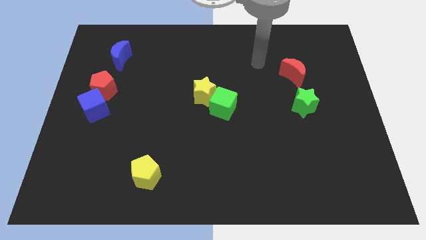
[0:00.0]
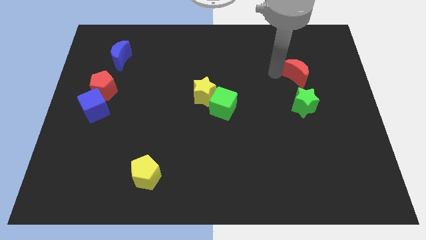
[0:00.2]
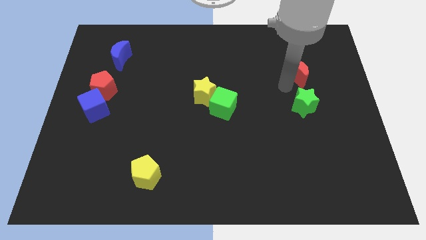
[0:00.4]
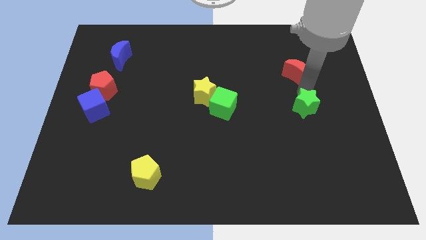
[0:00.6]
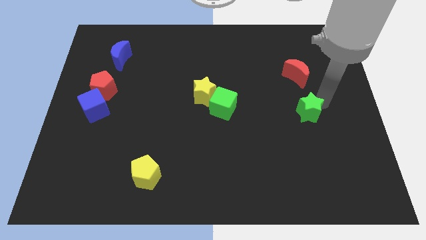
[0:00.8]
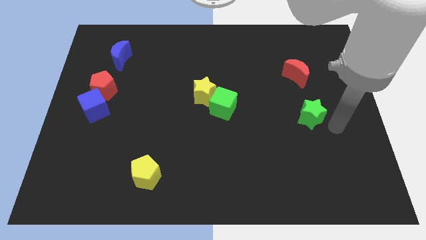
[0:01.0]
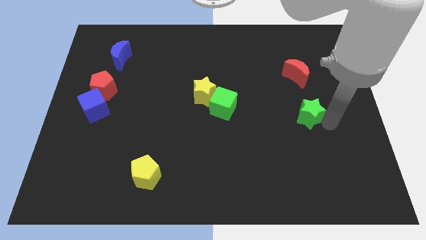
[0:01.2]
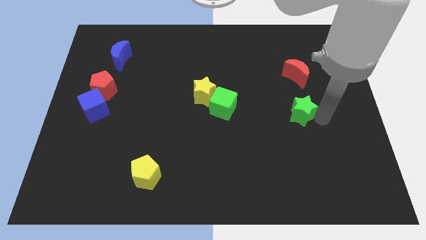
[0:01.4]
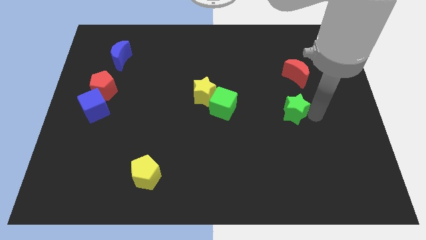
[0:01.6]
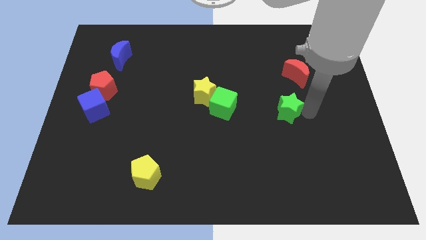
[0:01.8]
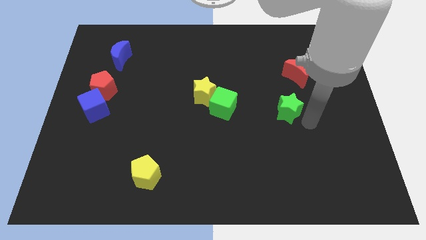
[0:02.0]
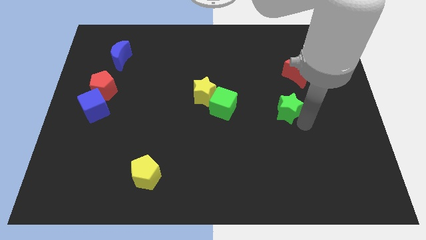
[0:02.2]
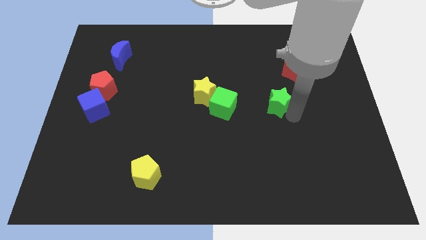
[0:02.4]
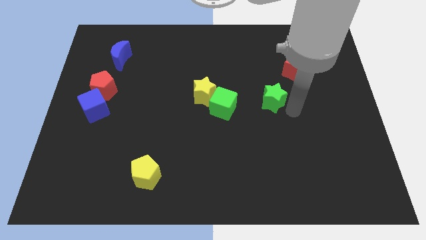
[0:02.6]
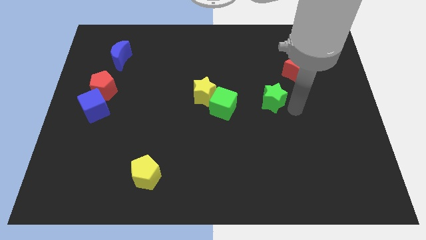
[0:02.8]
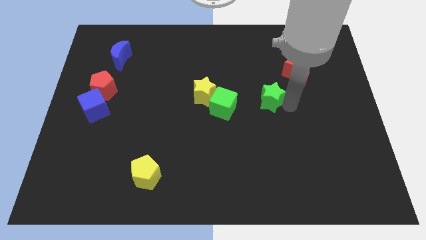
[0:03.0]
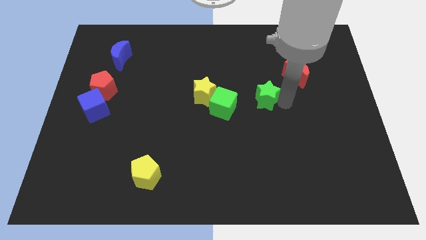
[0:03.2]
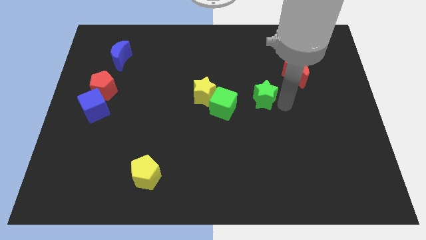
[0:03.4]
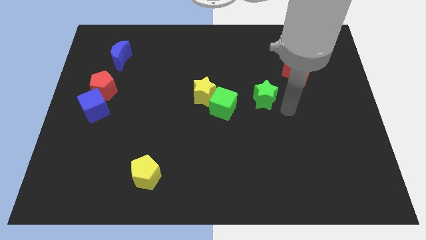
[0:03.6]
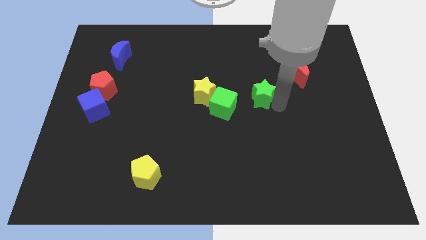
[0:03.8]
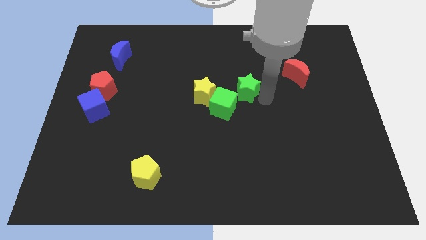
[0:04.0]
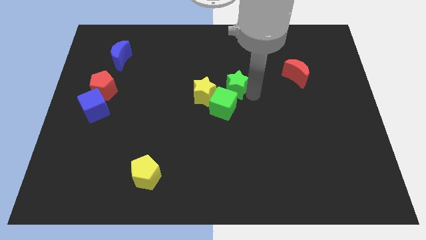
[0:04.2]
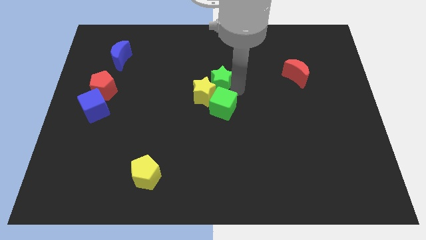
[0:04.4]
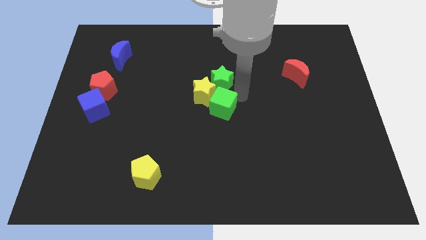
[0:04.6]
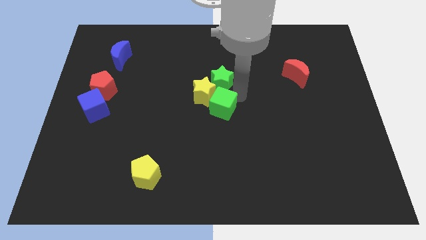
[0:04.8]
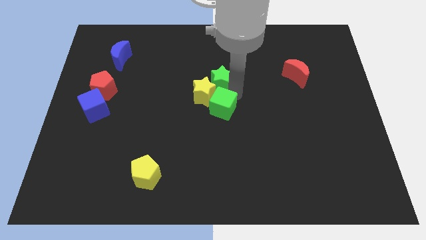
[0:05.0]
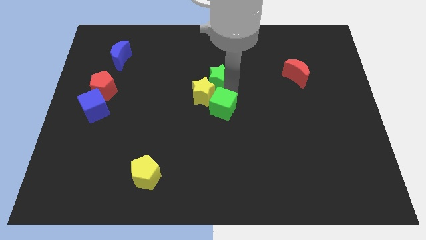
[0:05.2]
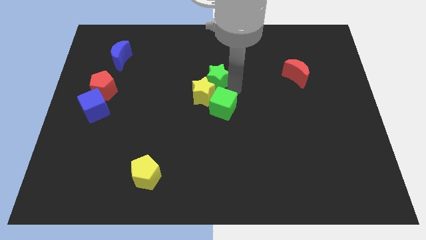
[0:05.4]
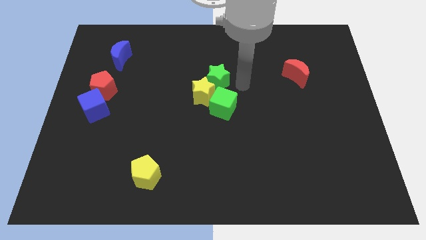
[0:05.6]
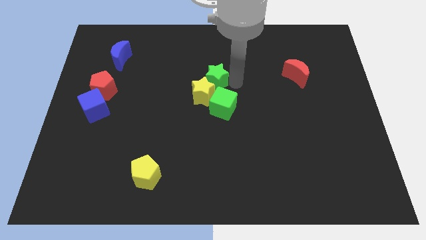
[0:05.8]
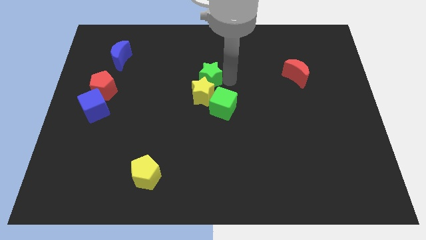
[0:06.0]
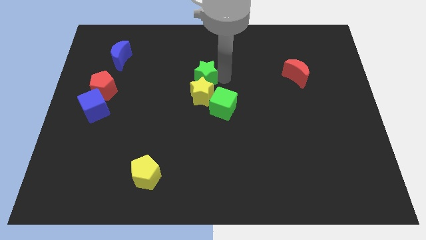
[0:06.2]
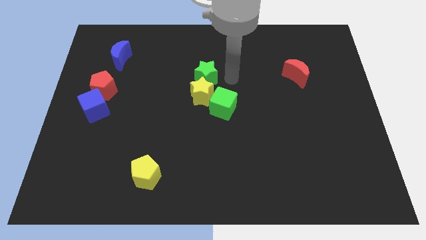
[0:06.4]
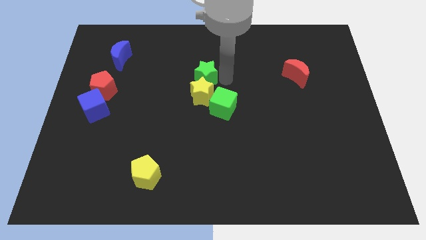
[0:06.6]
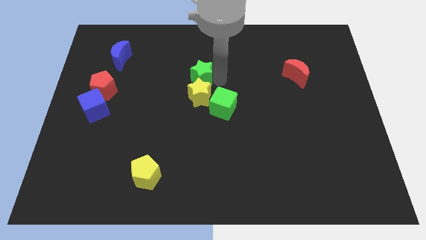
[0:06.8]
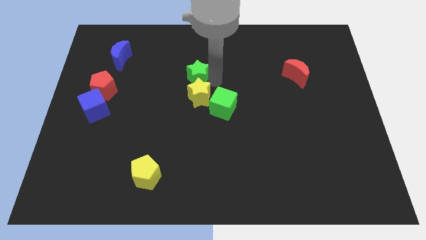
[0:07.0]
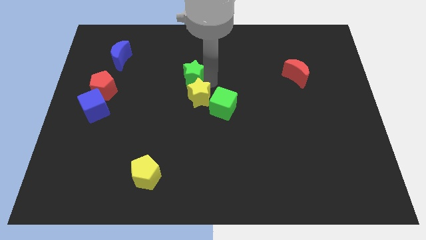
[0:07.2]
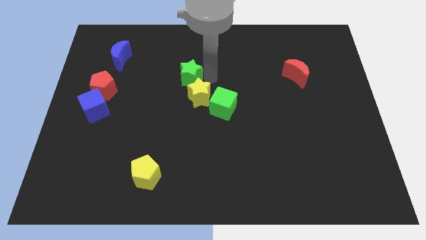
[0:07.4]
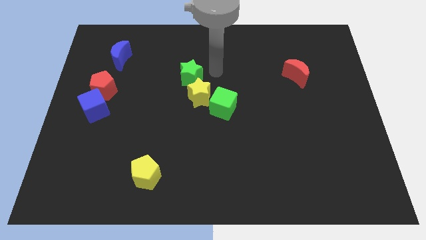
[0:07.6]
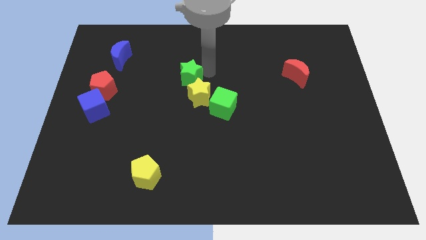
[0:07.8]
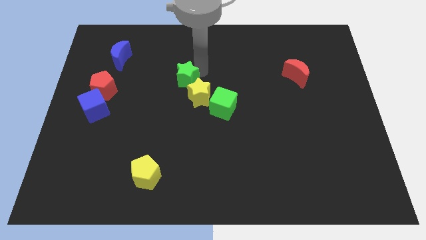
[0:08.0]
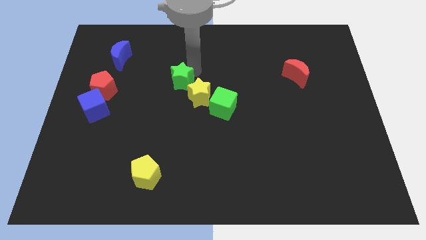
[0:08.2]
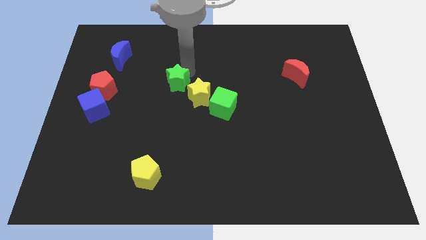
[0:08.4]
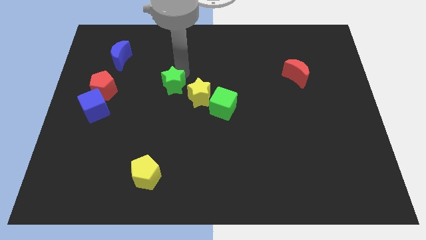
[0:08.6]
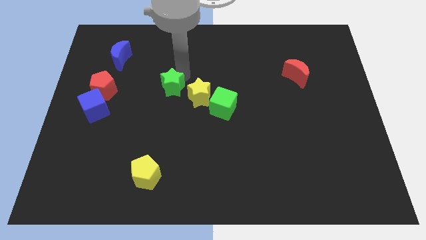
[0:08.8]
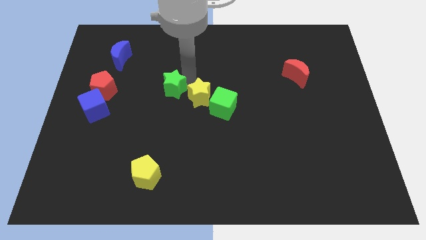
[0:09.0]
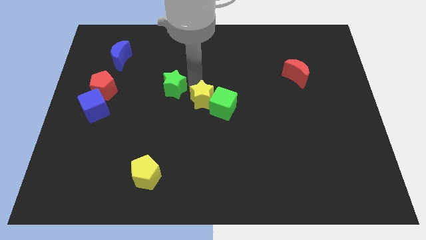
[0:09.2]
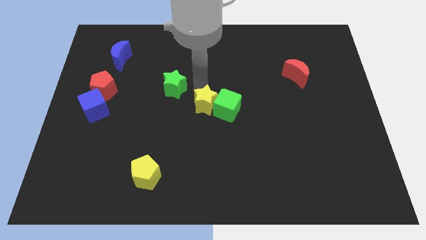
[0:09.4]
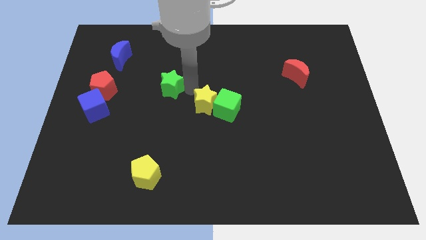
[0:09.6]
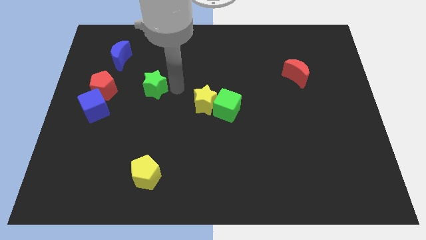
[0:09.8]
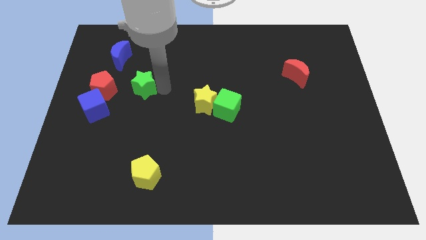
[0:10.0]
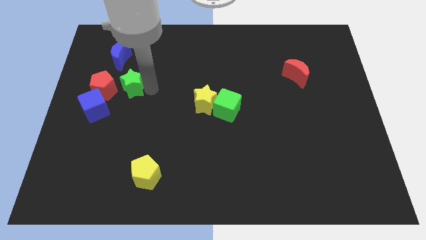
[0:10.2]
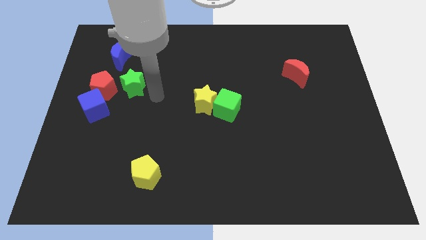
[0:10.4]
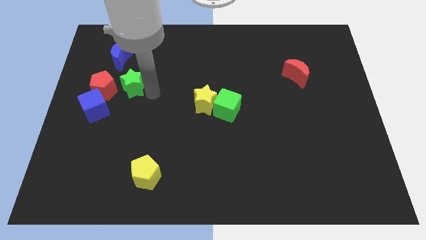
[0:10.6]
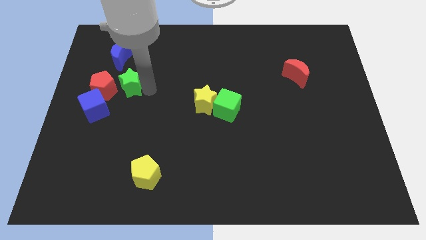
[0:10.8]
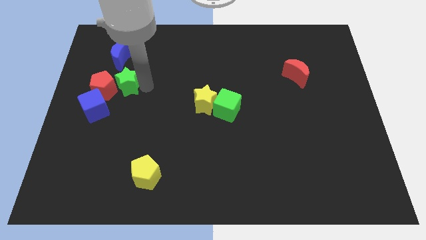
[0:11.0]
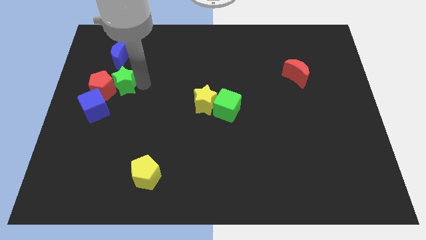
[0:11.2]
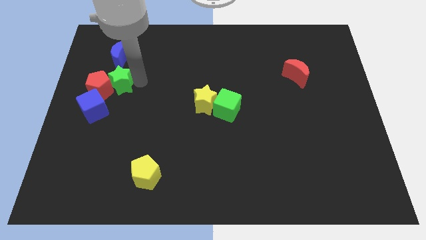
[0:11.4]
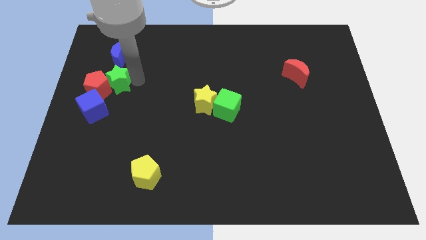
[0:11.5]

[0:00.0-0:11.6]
push the green star to the top side of the blue cube

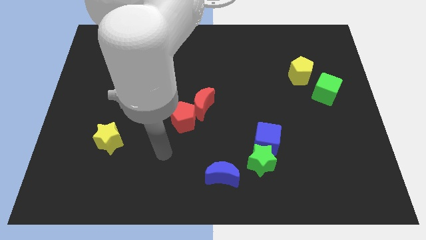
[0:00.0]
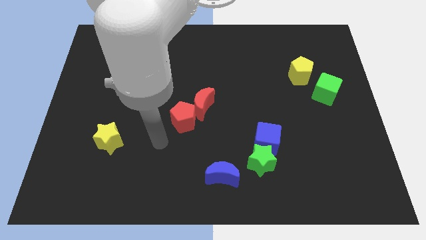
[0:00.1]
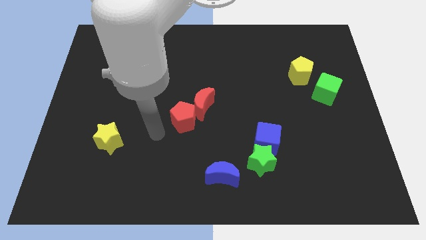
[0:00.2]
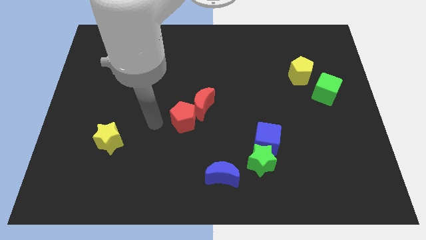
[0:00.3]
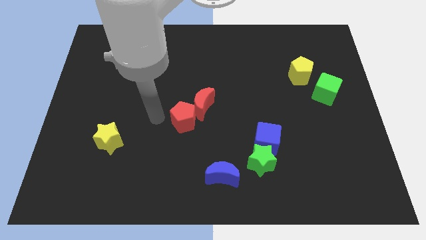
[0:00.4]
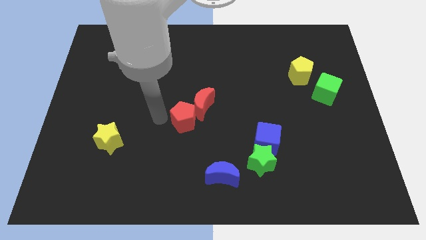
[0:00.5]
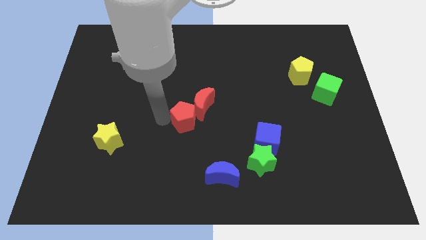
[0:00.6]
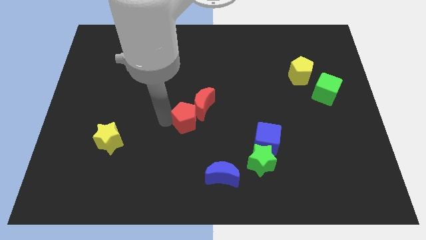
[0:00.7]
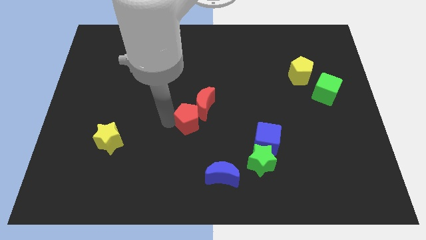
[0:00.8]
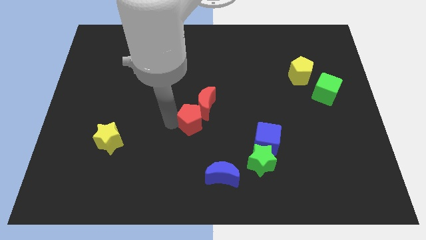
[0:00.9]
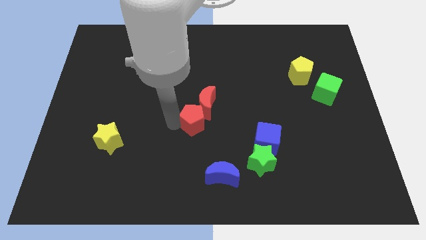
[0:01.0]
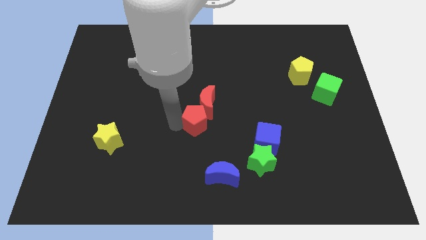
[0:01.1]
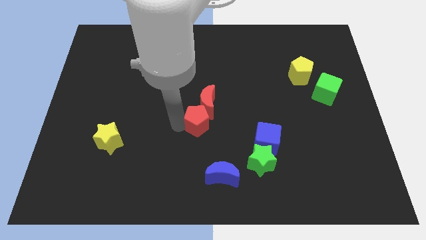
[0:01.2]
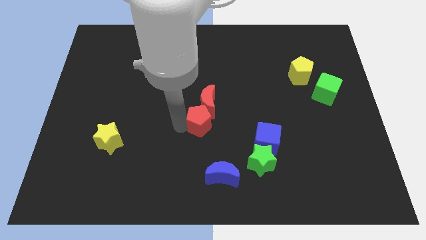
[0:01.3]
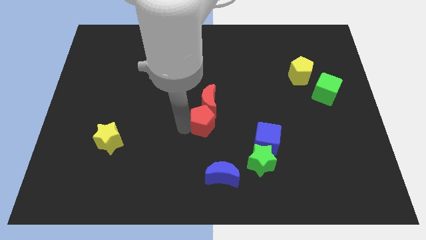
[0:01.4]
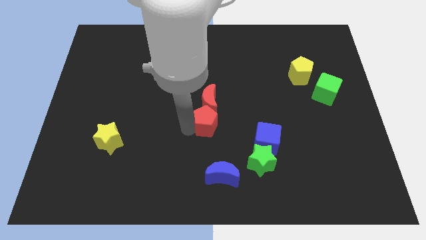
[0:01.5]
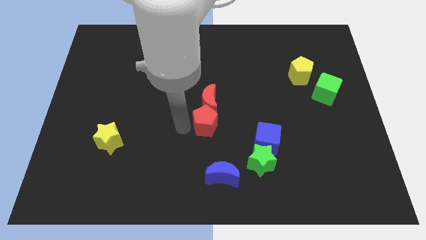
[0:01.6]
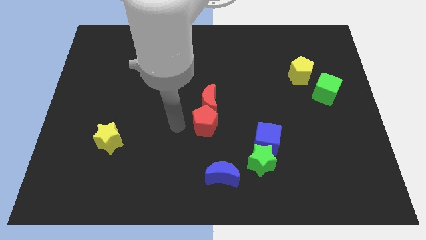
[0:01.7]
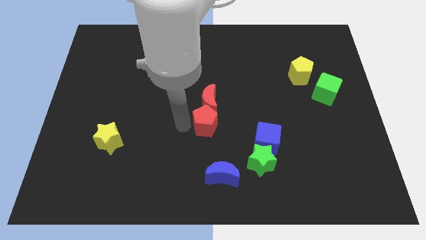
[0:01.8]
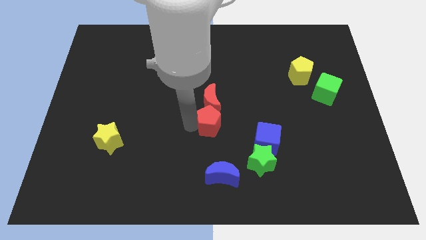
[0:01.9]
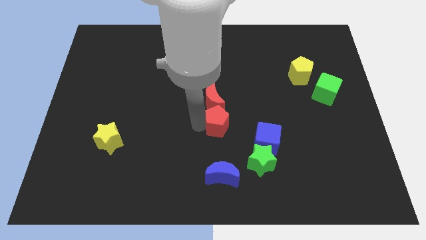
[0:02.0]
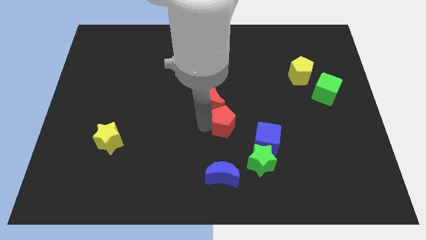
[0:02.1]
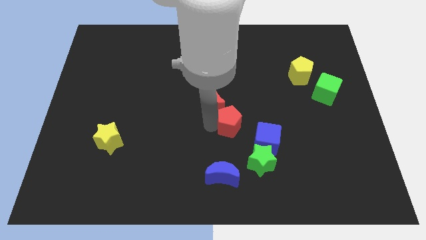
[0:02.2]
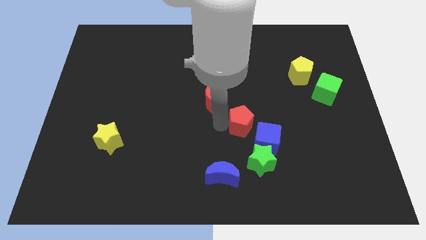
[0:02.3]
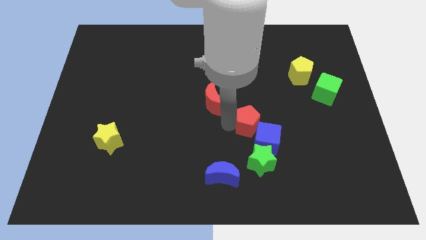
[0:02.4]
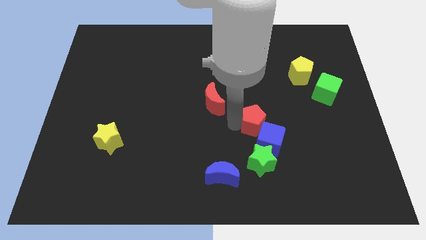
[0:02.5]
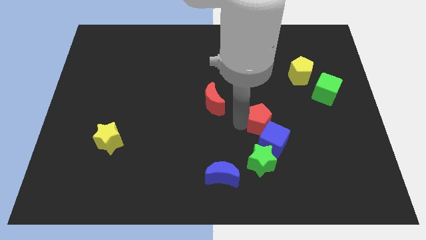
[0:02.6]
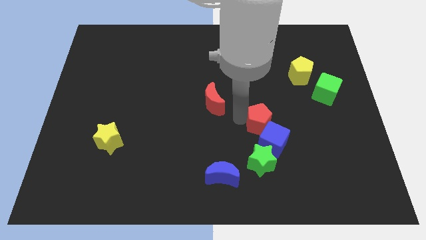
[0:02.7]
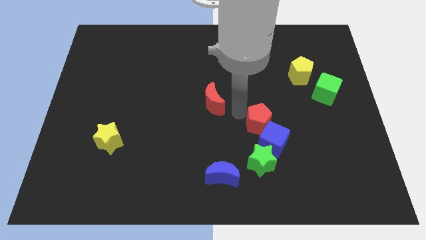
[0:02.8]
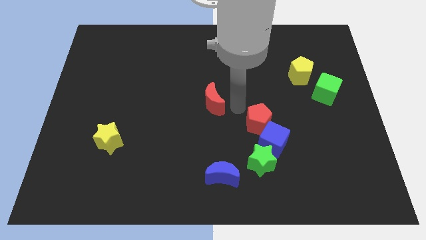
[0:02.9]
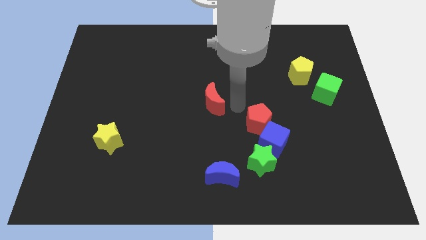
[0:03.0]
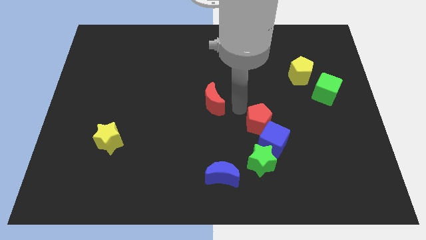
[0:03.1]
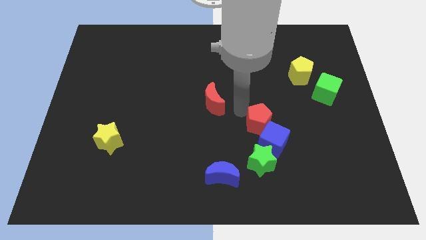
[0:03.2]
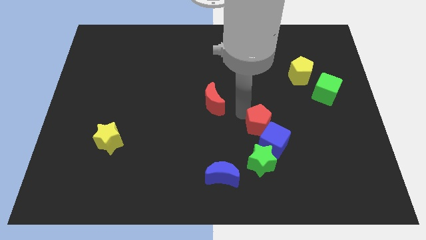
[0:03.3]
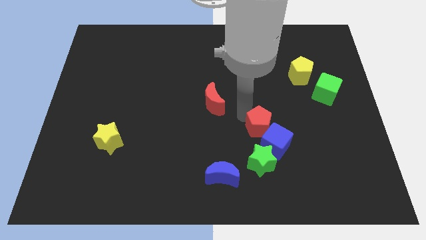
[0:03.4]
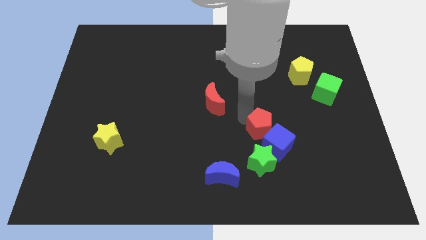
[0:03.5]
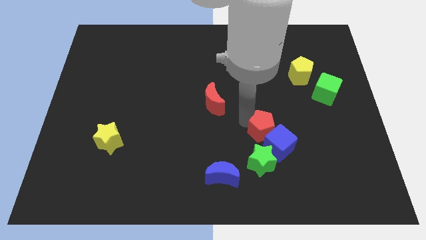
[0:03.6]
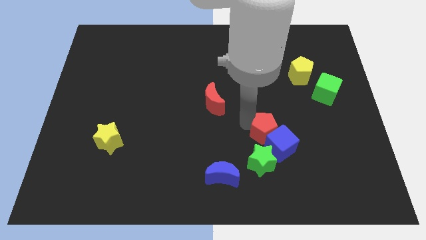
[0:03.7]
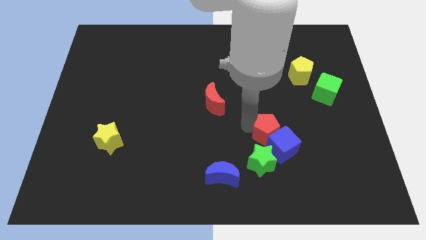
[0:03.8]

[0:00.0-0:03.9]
push the red pentagon to the top right side of the green star
